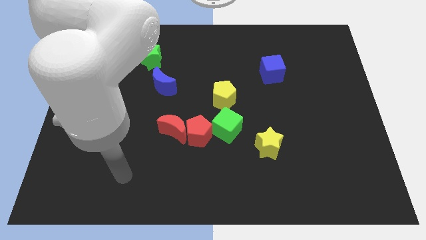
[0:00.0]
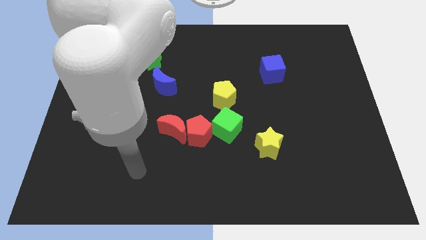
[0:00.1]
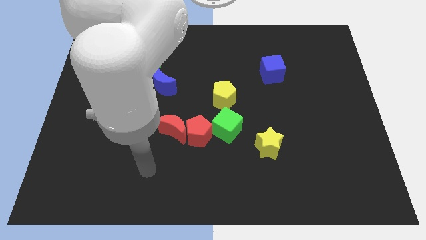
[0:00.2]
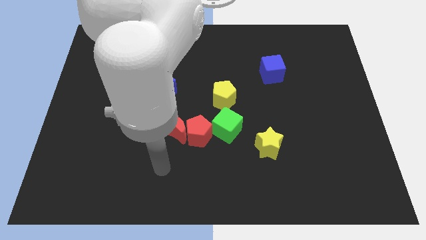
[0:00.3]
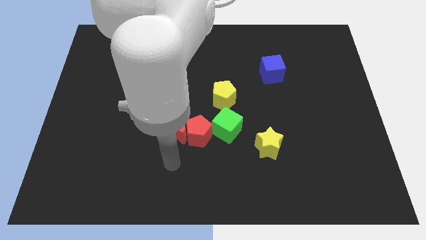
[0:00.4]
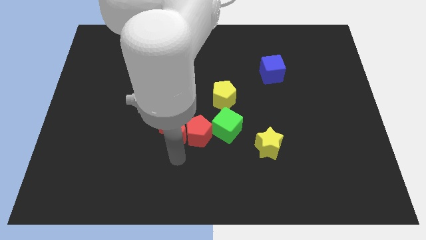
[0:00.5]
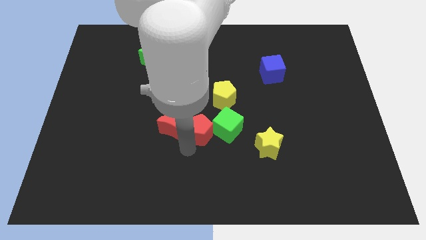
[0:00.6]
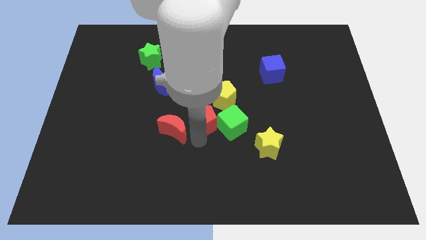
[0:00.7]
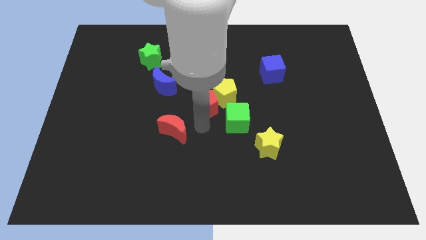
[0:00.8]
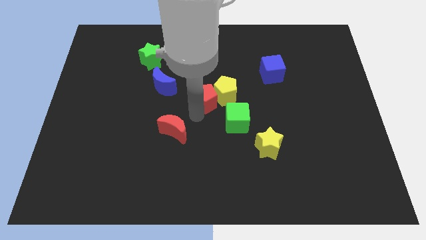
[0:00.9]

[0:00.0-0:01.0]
separate the red moon from the red pentagon

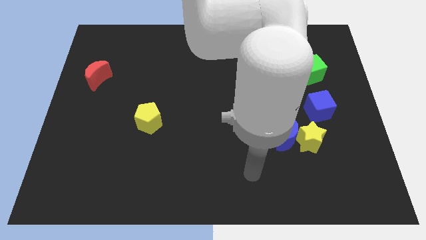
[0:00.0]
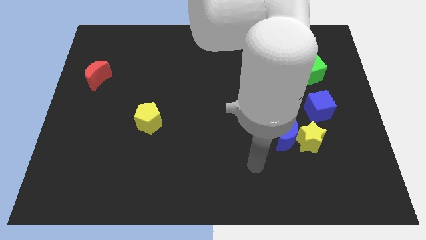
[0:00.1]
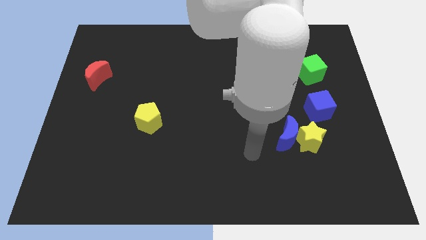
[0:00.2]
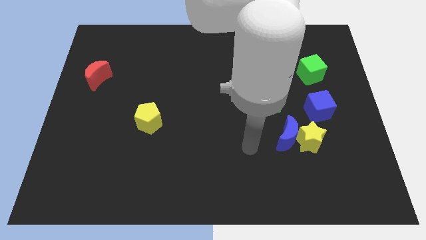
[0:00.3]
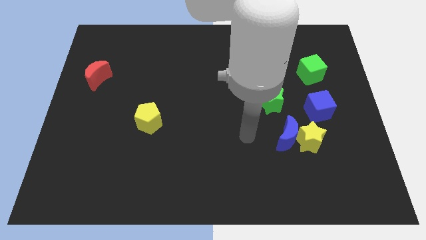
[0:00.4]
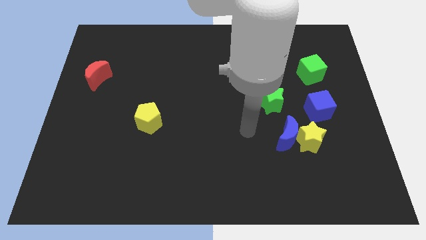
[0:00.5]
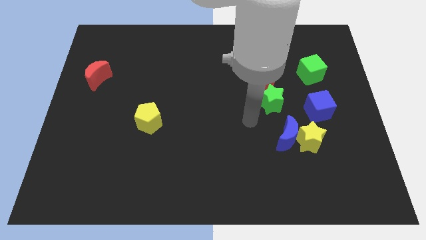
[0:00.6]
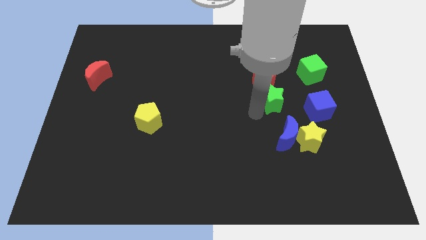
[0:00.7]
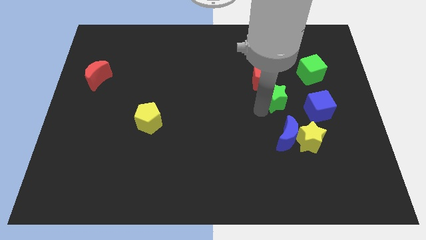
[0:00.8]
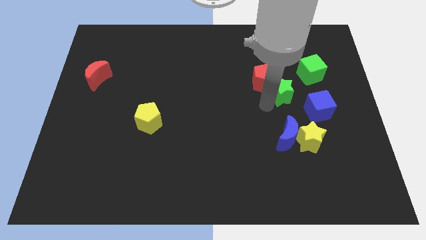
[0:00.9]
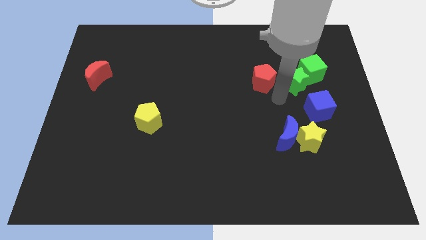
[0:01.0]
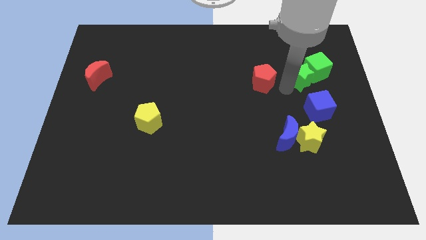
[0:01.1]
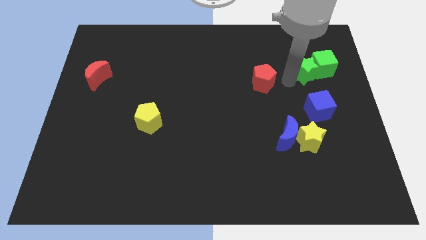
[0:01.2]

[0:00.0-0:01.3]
pull the red pentagon apart from the green star

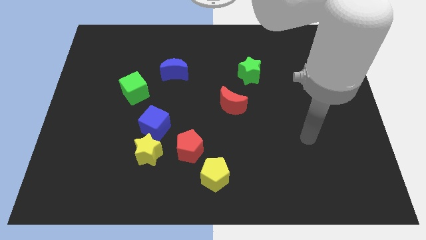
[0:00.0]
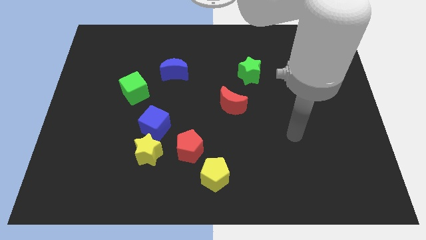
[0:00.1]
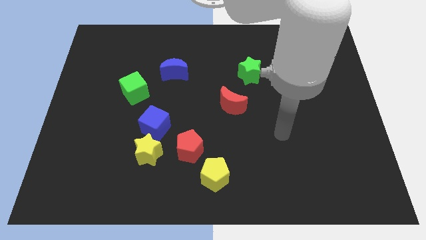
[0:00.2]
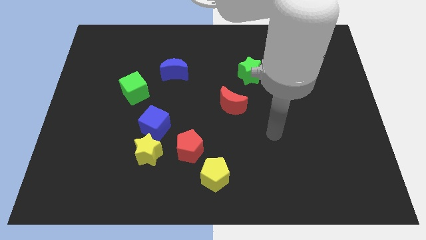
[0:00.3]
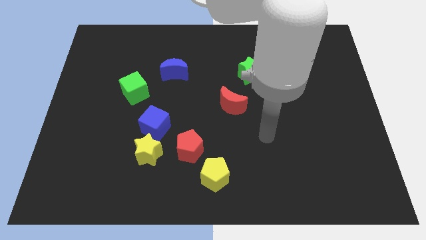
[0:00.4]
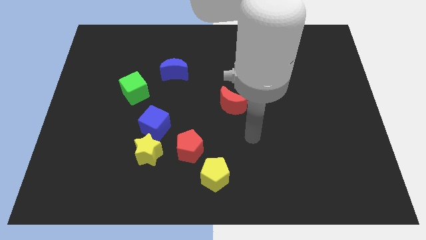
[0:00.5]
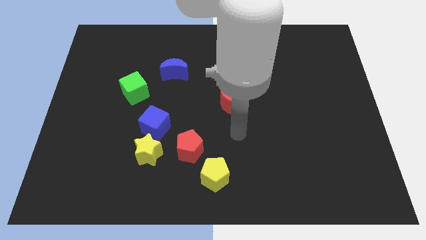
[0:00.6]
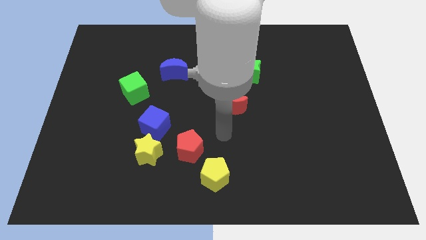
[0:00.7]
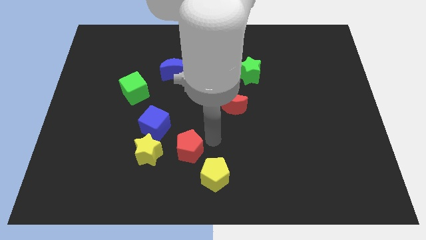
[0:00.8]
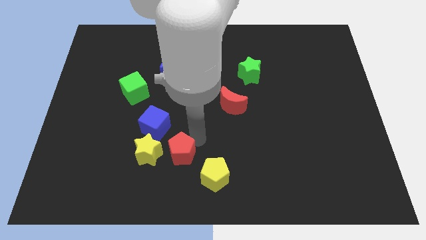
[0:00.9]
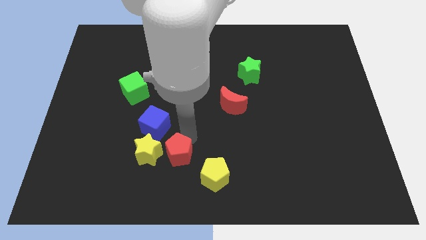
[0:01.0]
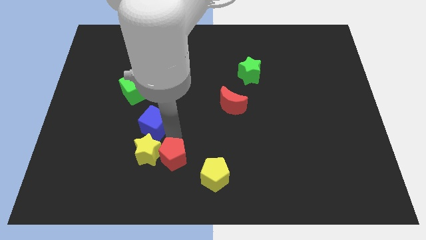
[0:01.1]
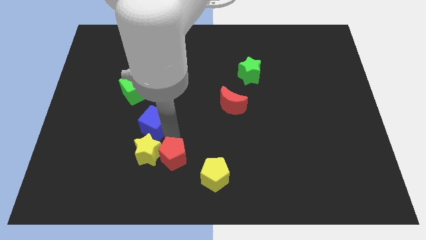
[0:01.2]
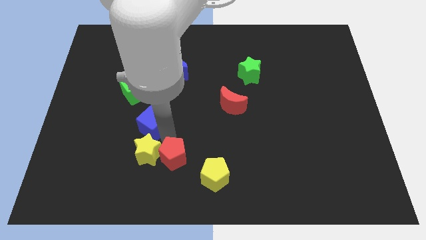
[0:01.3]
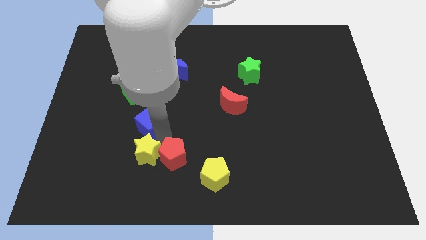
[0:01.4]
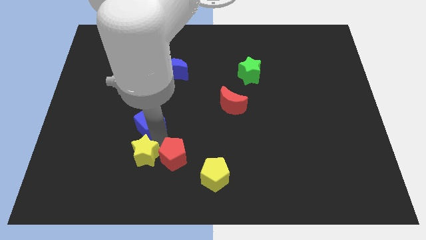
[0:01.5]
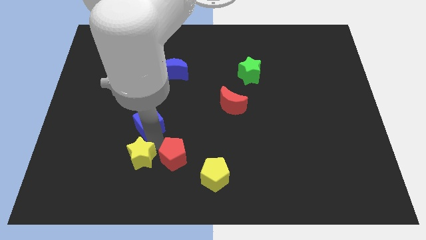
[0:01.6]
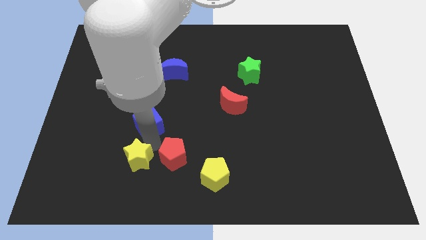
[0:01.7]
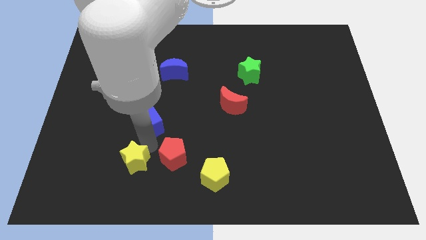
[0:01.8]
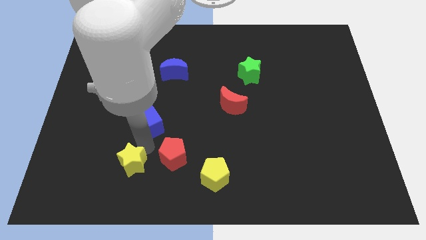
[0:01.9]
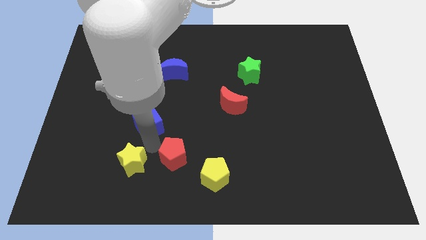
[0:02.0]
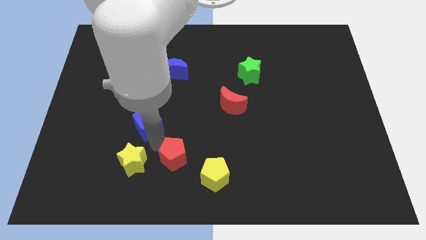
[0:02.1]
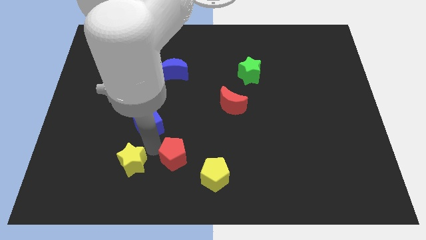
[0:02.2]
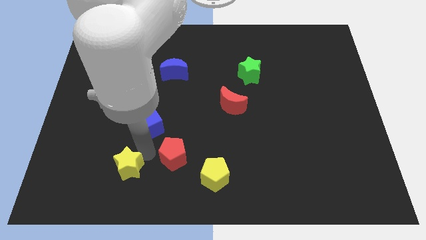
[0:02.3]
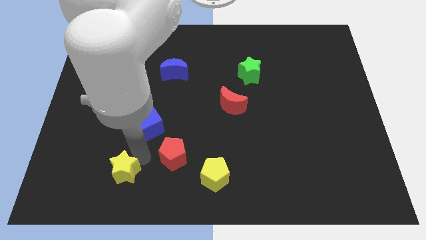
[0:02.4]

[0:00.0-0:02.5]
separate the yellow star from the blue cube and red pentagon

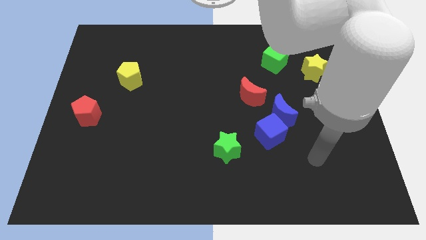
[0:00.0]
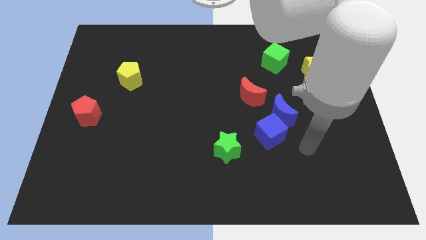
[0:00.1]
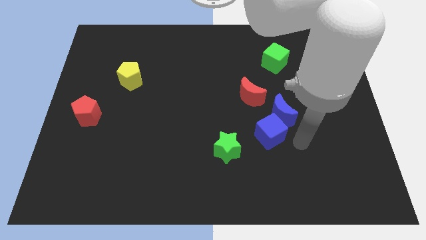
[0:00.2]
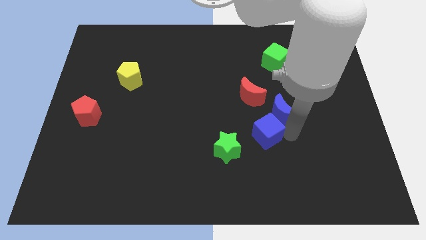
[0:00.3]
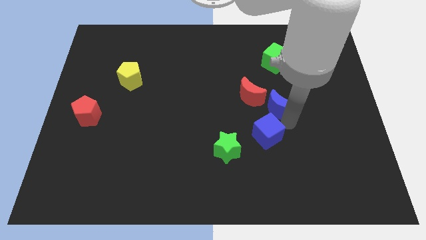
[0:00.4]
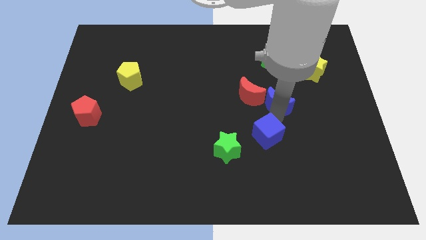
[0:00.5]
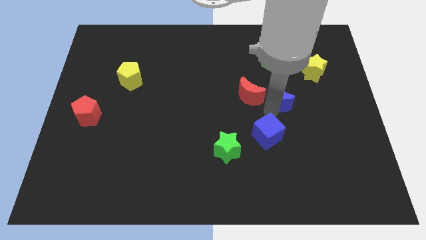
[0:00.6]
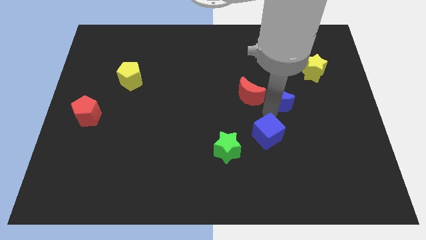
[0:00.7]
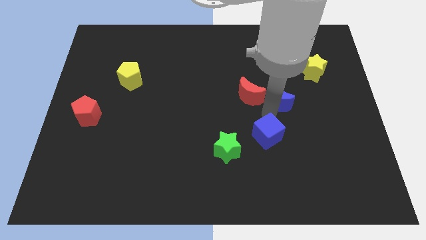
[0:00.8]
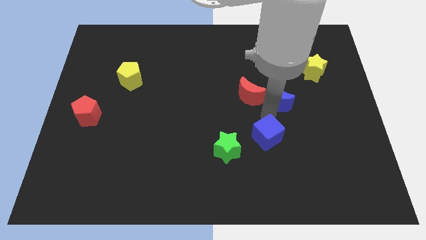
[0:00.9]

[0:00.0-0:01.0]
separate the blue cube from the blue moon

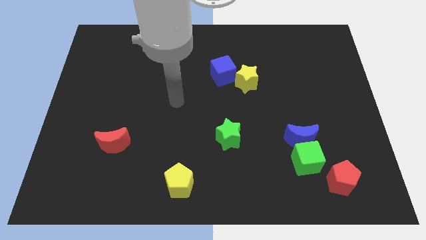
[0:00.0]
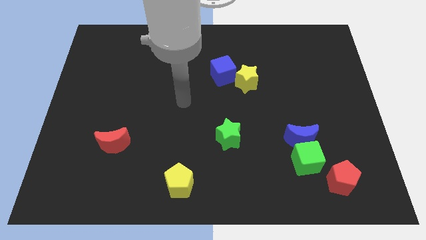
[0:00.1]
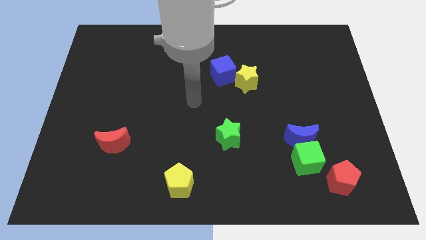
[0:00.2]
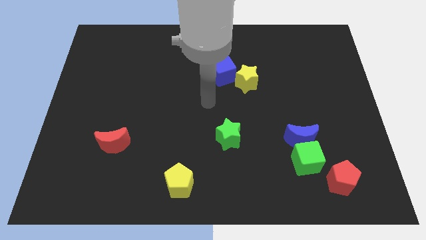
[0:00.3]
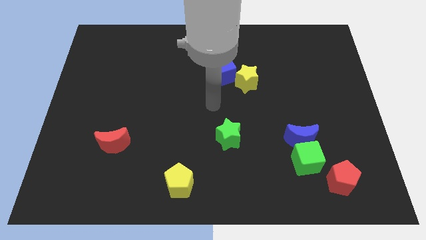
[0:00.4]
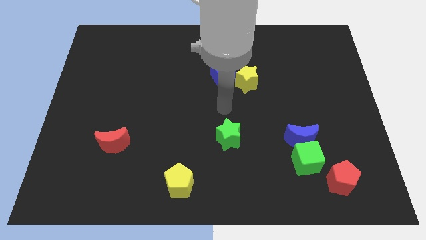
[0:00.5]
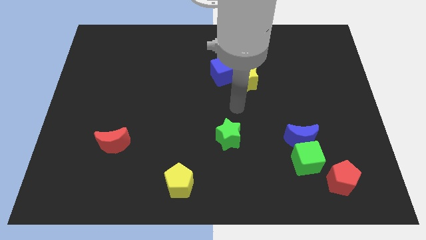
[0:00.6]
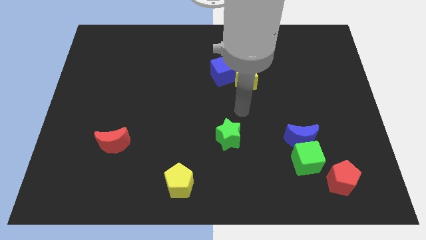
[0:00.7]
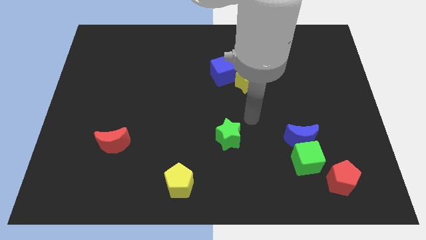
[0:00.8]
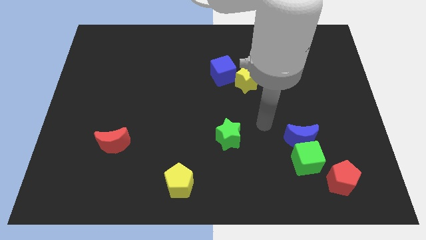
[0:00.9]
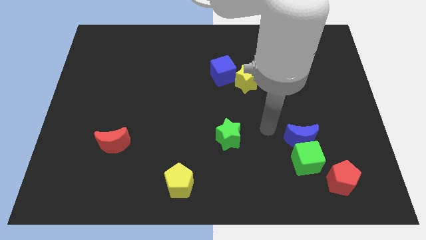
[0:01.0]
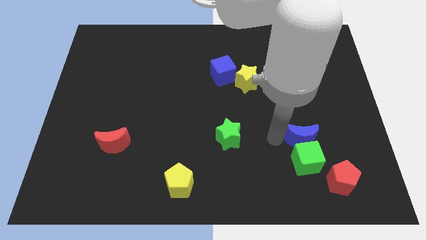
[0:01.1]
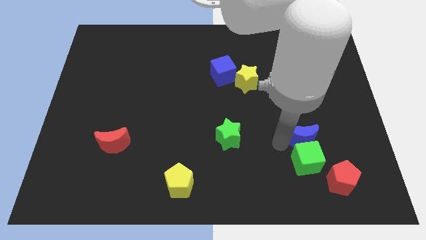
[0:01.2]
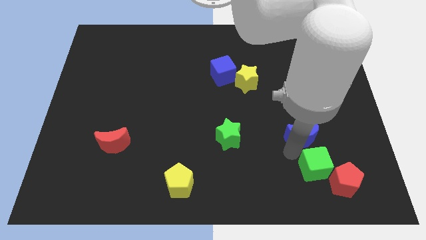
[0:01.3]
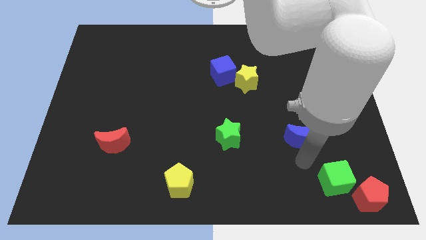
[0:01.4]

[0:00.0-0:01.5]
pull the blue moon apart from the green cube

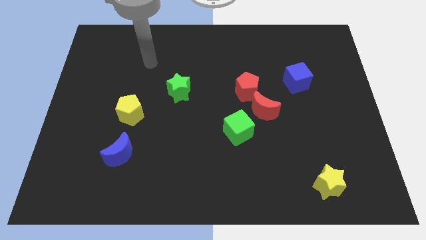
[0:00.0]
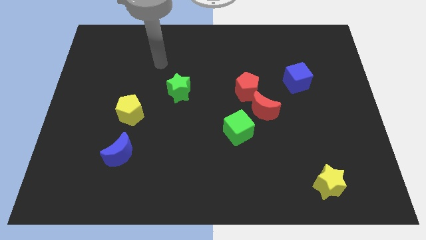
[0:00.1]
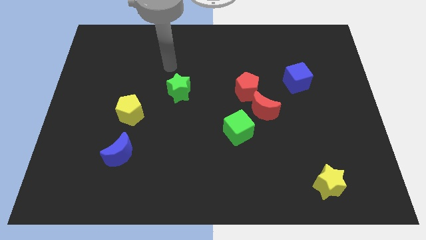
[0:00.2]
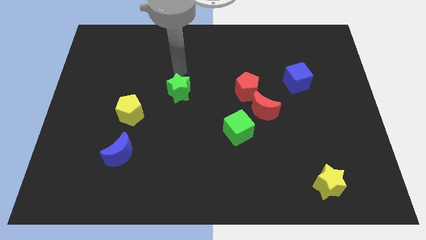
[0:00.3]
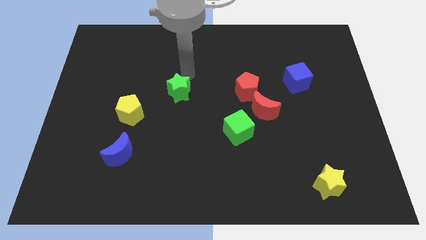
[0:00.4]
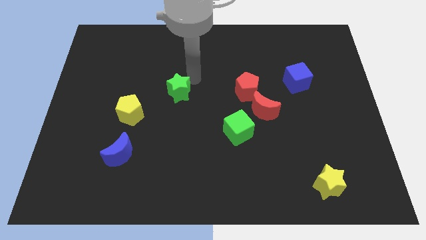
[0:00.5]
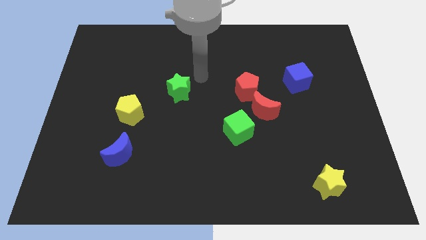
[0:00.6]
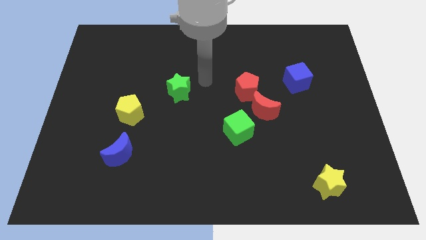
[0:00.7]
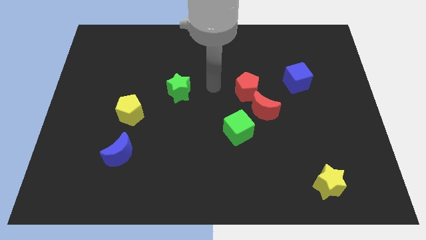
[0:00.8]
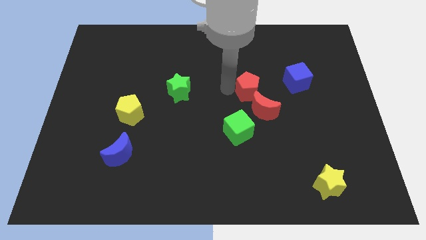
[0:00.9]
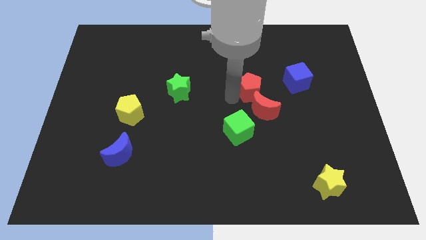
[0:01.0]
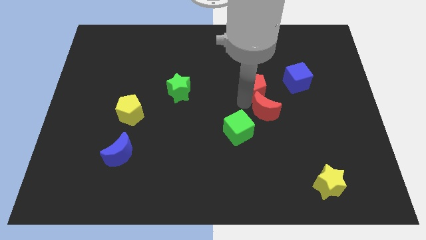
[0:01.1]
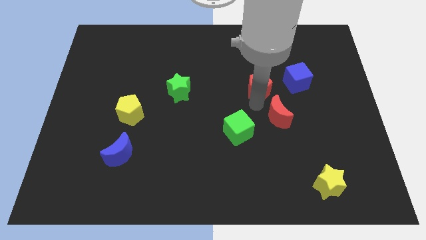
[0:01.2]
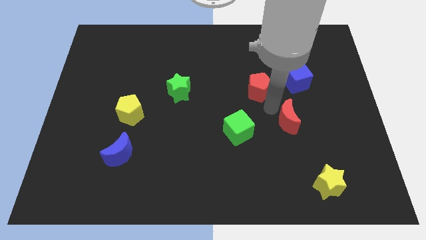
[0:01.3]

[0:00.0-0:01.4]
pull the red pentagon apart from the red moon

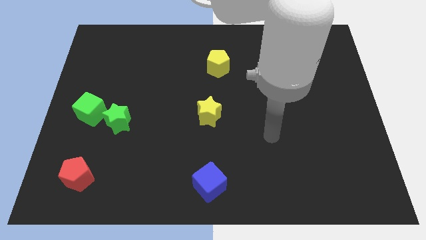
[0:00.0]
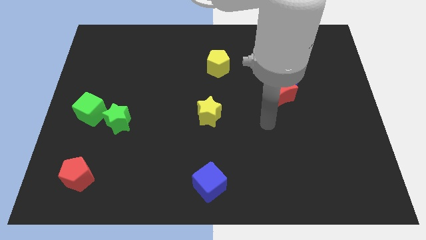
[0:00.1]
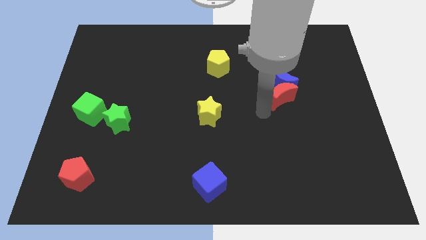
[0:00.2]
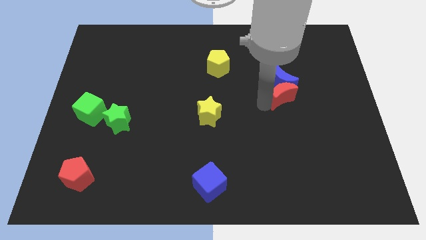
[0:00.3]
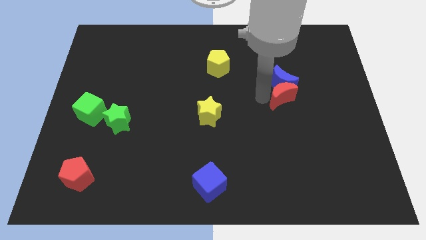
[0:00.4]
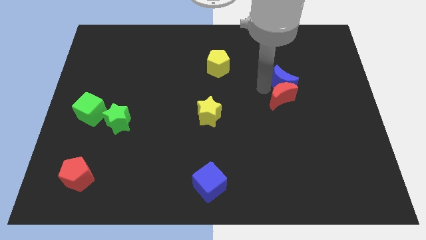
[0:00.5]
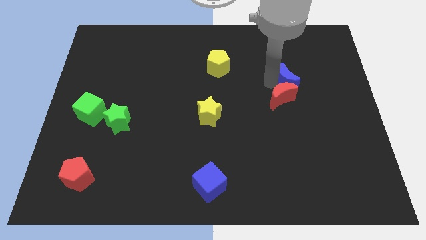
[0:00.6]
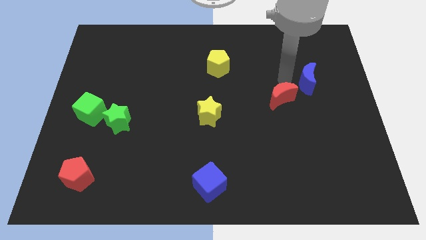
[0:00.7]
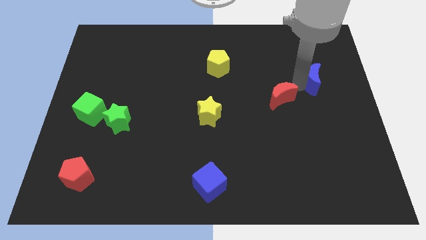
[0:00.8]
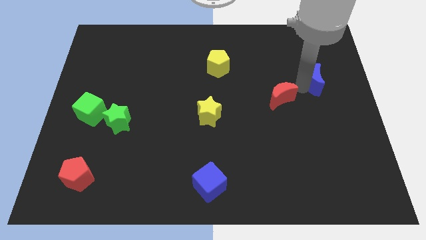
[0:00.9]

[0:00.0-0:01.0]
separate the red moon from the blue moon
